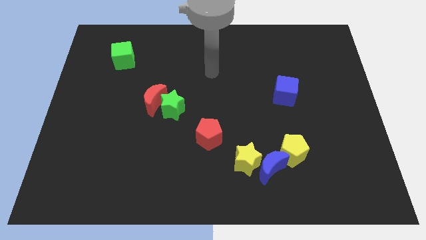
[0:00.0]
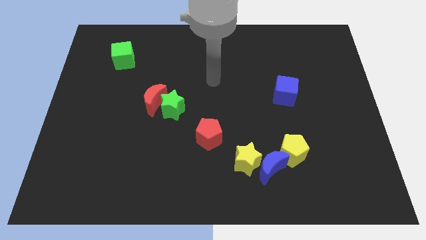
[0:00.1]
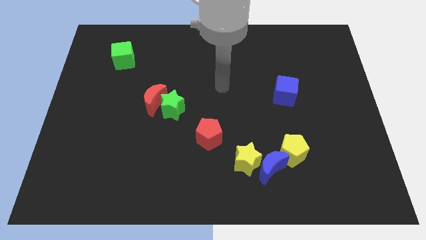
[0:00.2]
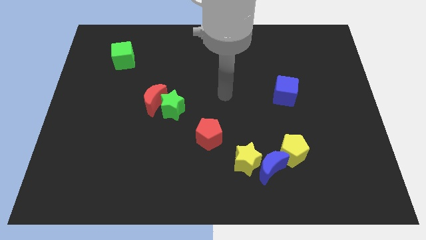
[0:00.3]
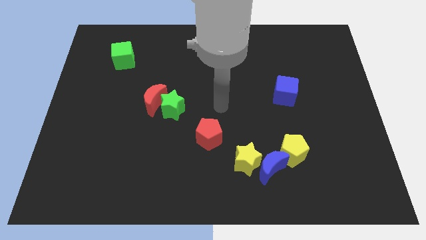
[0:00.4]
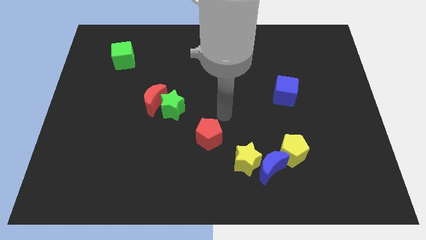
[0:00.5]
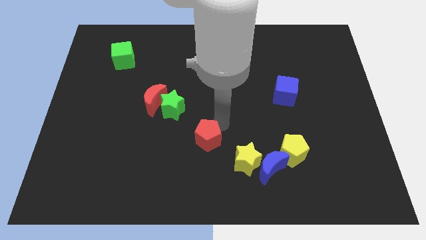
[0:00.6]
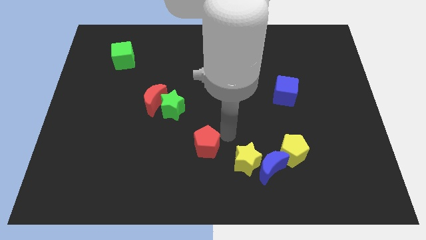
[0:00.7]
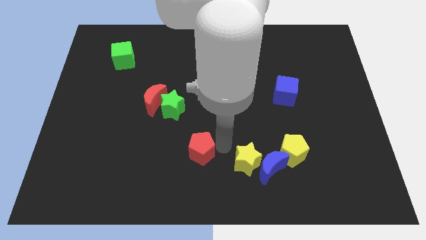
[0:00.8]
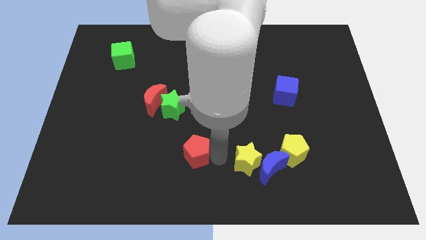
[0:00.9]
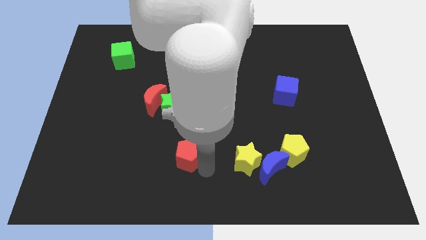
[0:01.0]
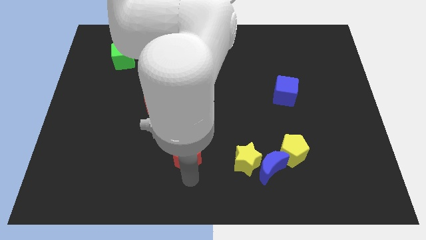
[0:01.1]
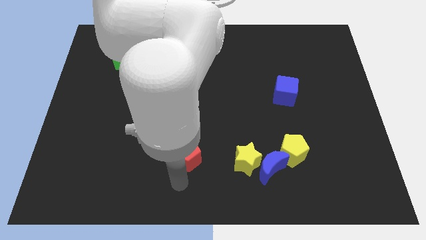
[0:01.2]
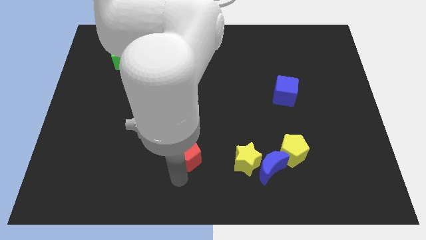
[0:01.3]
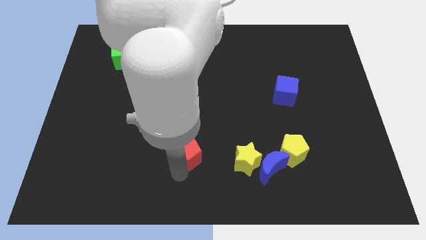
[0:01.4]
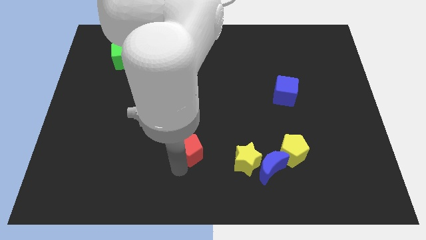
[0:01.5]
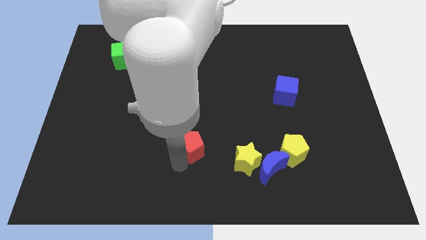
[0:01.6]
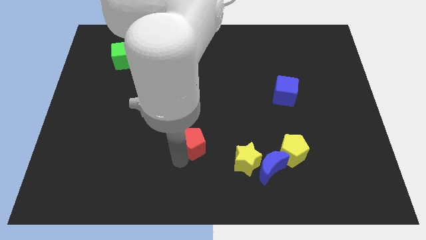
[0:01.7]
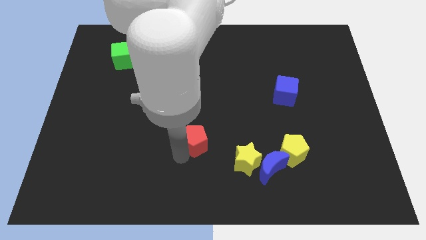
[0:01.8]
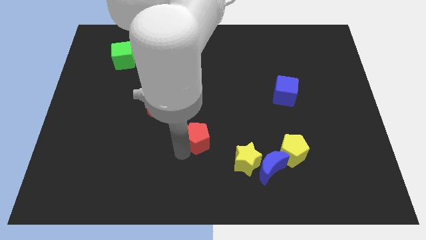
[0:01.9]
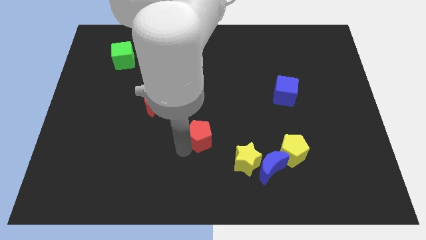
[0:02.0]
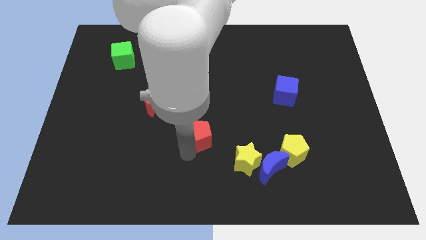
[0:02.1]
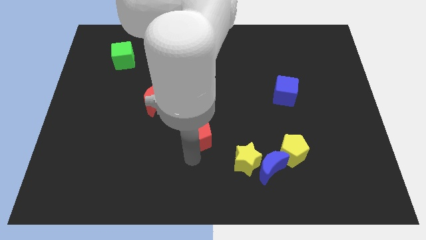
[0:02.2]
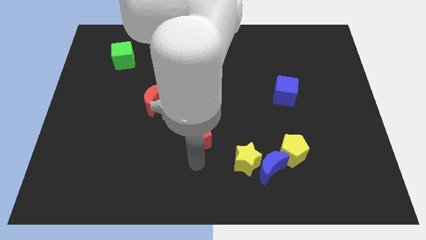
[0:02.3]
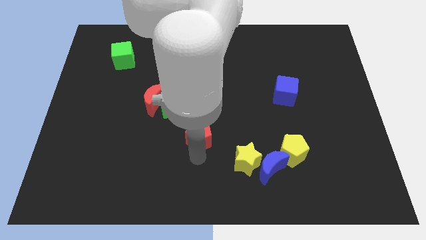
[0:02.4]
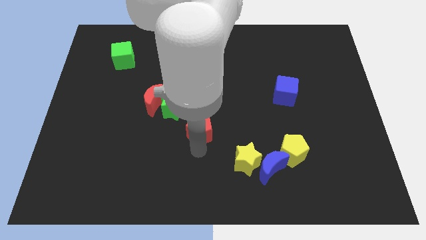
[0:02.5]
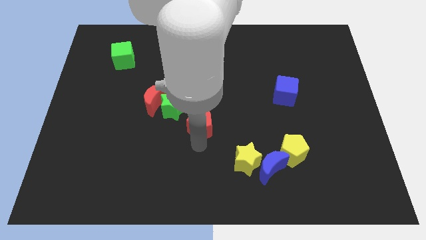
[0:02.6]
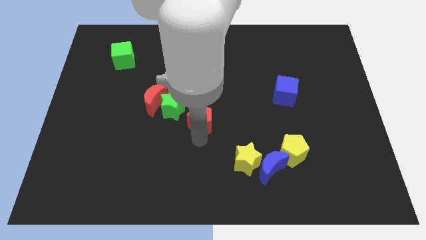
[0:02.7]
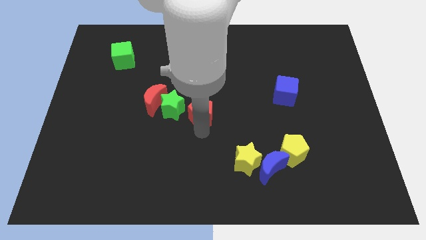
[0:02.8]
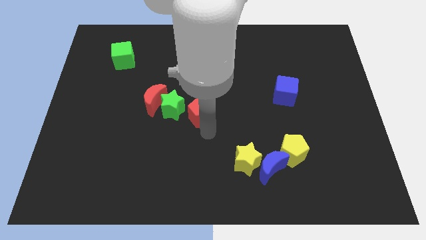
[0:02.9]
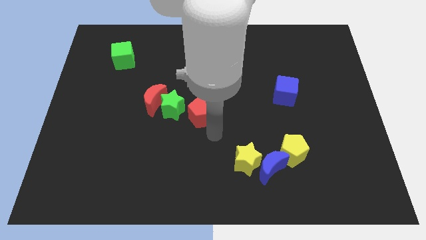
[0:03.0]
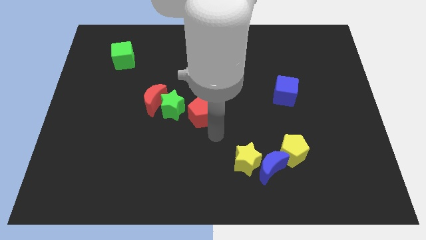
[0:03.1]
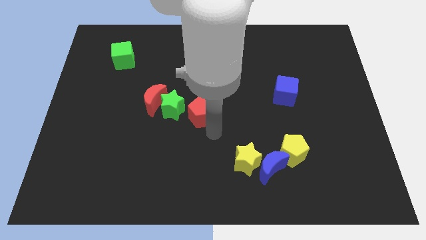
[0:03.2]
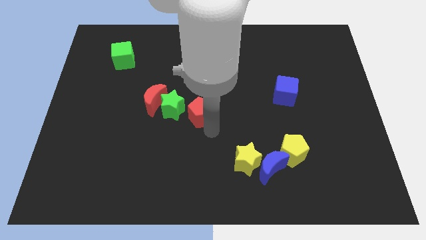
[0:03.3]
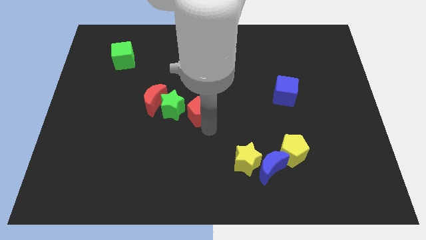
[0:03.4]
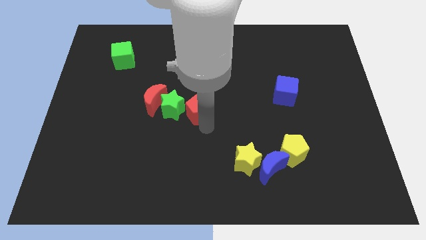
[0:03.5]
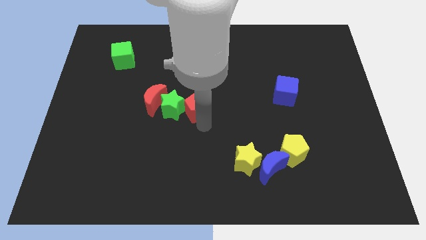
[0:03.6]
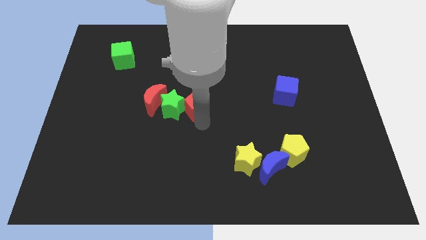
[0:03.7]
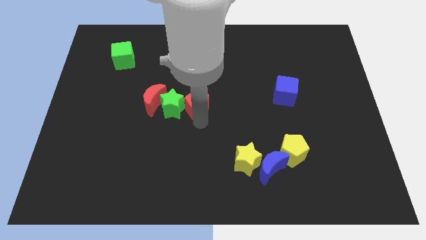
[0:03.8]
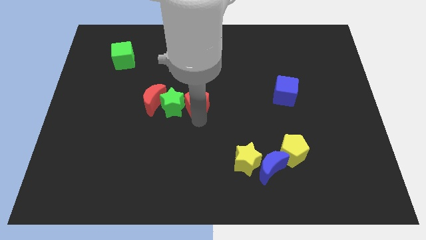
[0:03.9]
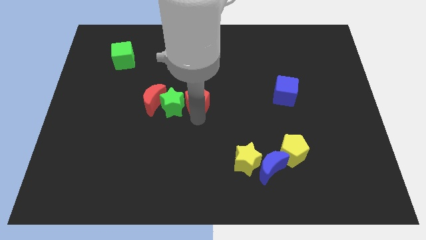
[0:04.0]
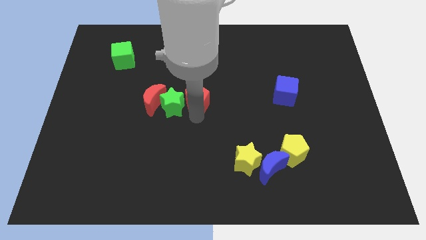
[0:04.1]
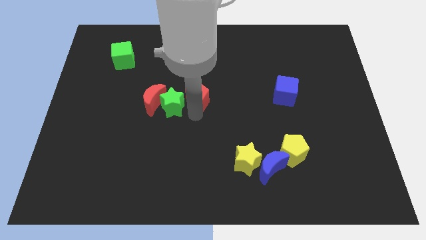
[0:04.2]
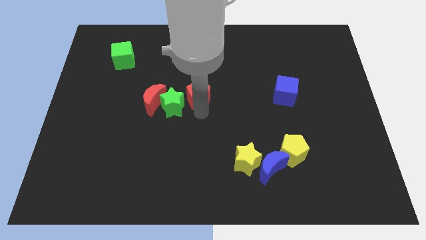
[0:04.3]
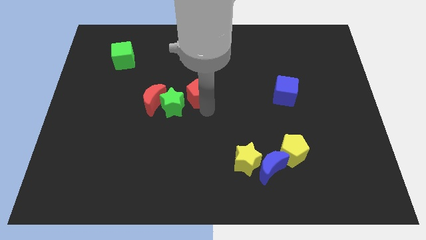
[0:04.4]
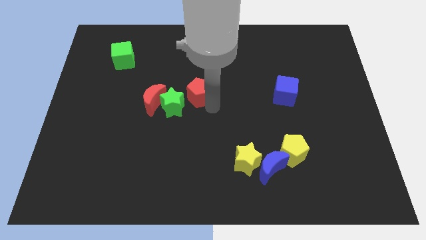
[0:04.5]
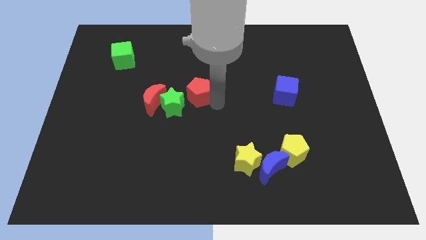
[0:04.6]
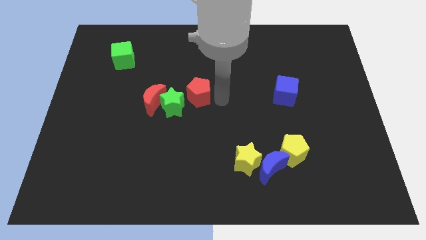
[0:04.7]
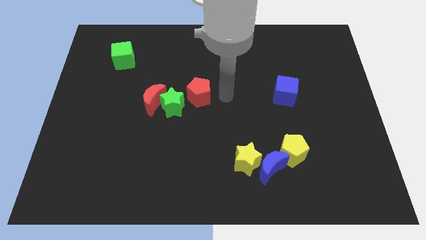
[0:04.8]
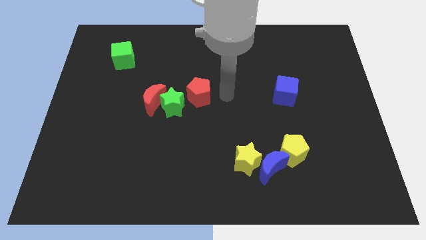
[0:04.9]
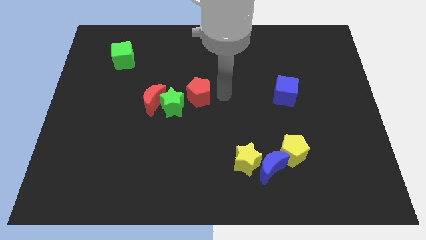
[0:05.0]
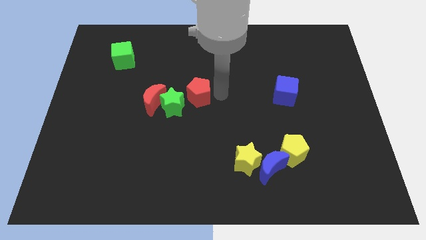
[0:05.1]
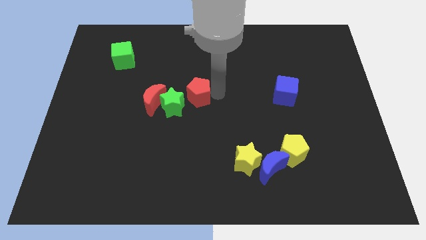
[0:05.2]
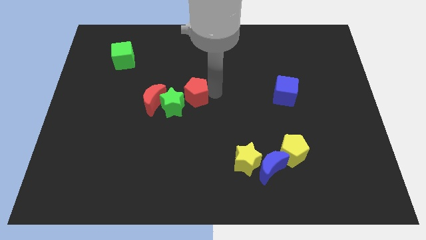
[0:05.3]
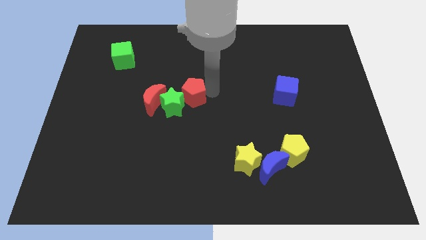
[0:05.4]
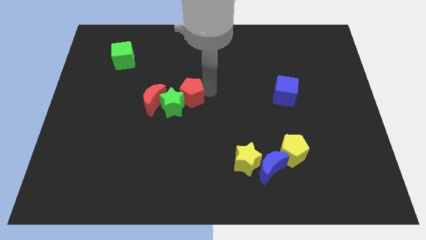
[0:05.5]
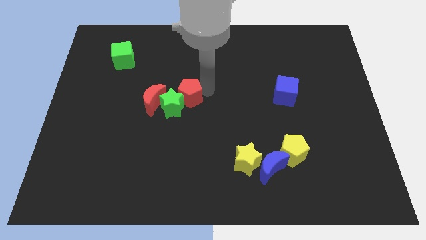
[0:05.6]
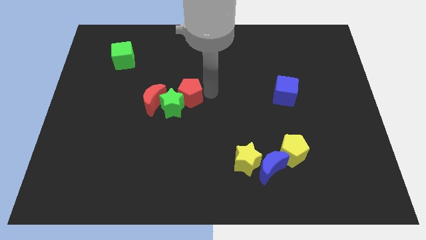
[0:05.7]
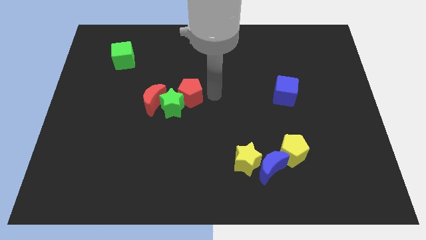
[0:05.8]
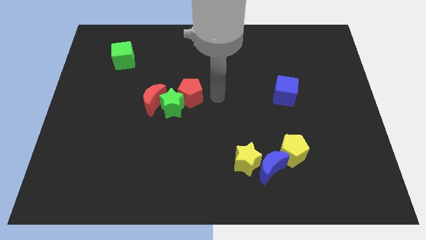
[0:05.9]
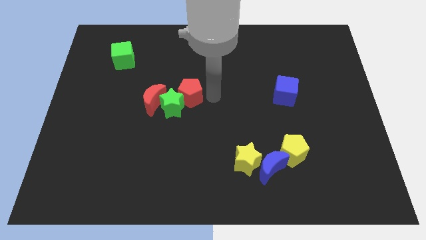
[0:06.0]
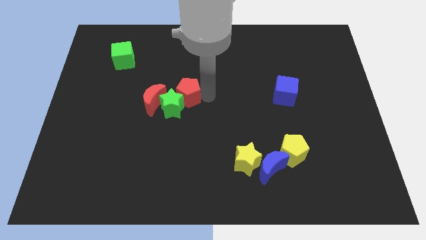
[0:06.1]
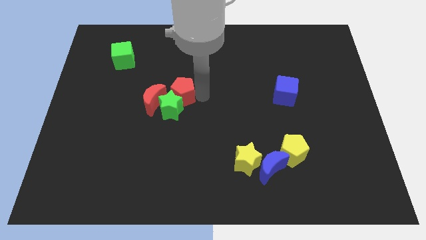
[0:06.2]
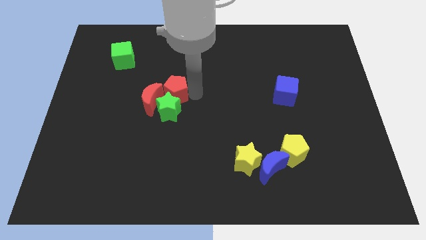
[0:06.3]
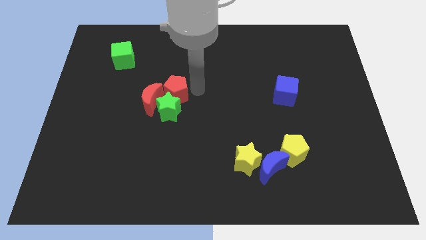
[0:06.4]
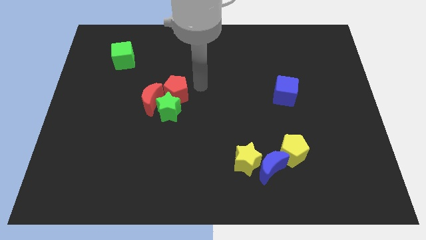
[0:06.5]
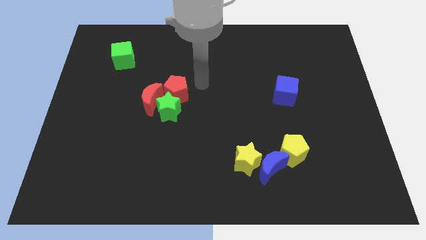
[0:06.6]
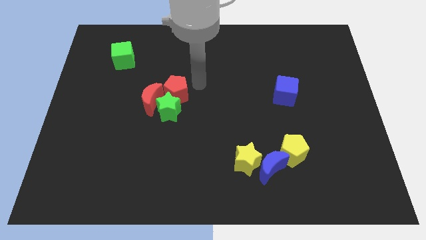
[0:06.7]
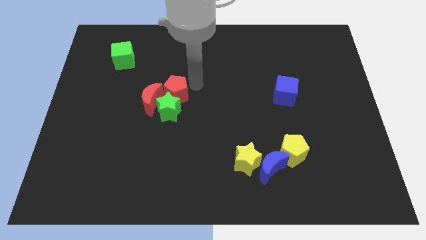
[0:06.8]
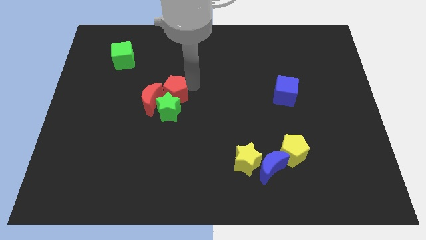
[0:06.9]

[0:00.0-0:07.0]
push the red pentagon next to the red moon
